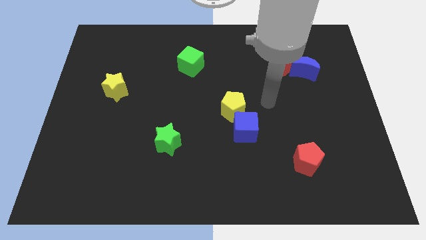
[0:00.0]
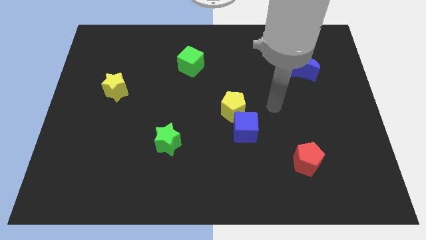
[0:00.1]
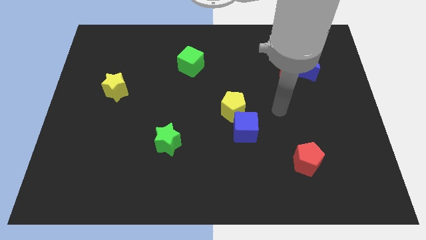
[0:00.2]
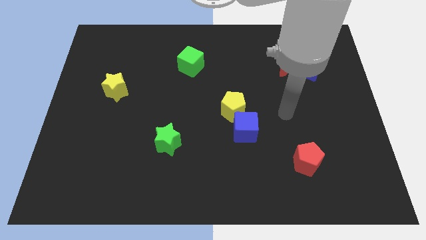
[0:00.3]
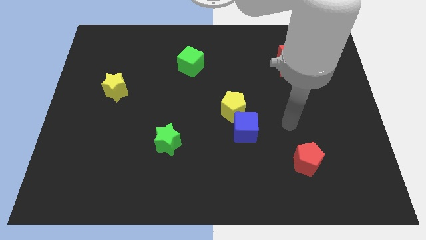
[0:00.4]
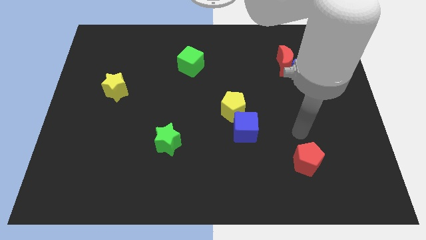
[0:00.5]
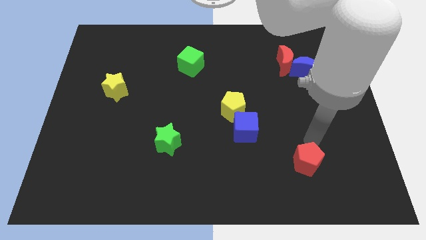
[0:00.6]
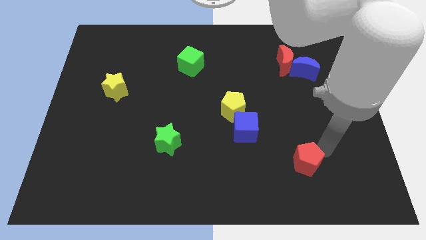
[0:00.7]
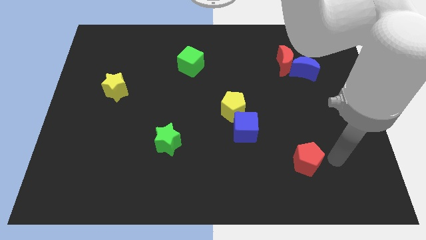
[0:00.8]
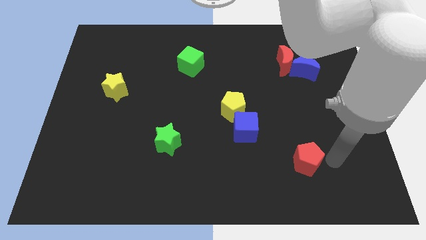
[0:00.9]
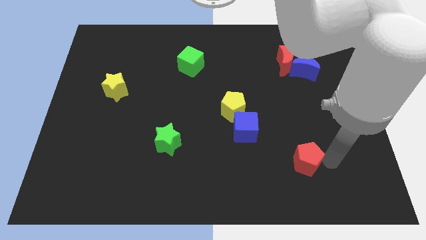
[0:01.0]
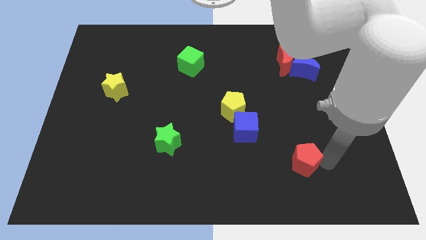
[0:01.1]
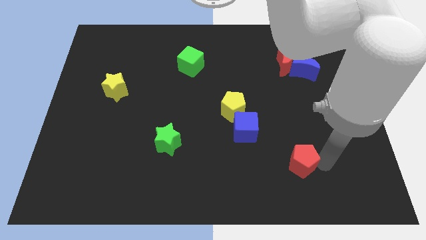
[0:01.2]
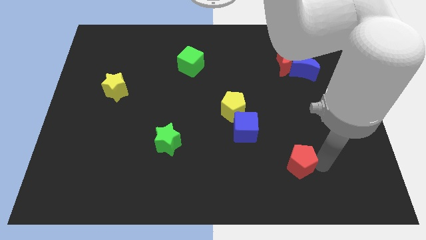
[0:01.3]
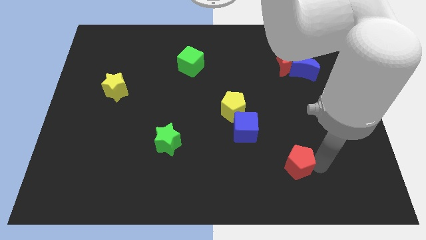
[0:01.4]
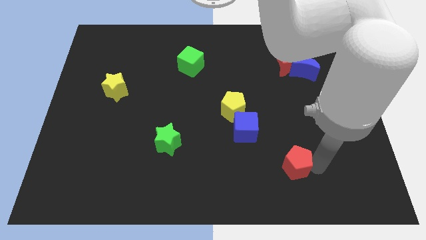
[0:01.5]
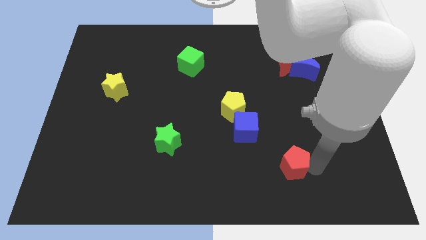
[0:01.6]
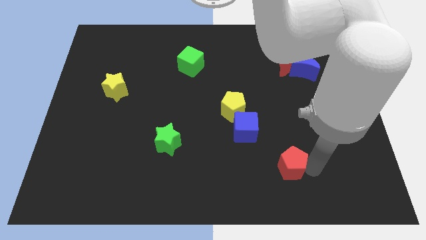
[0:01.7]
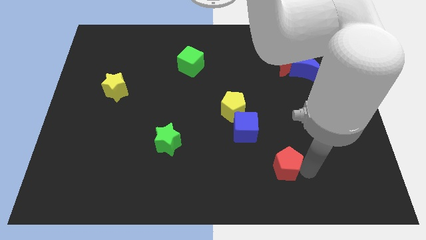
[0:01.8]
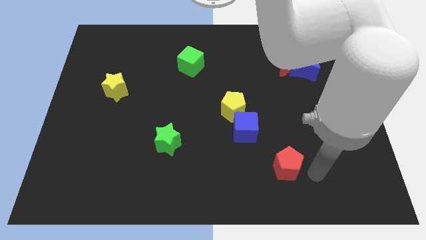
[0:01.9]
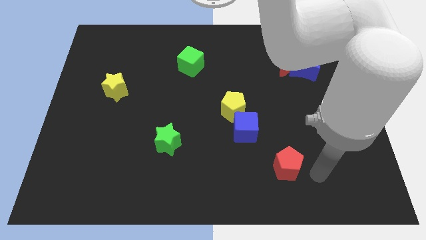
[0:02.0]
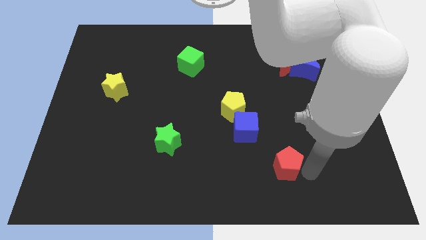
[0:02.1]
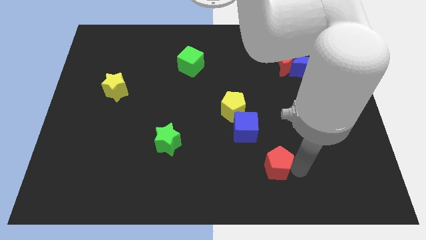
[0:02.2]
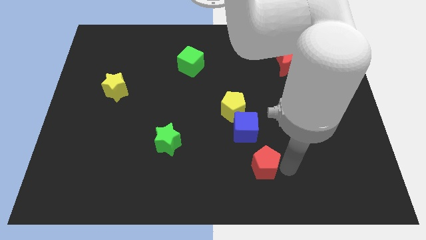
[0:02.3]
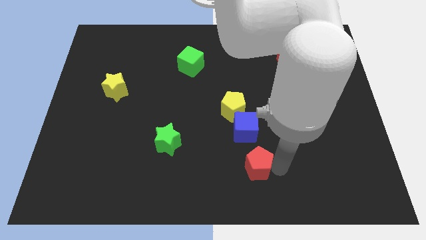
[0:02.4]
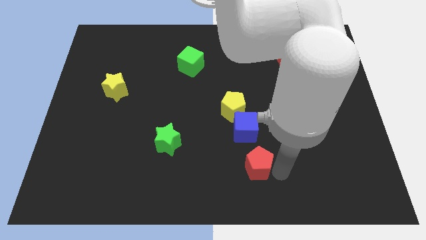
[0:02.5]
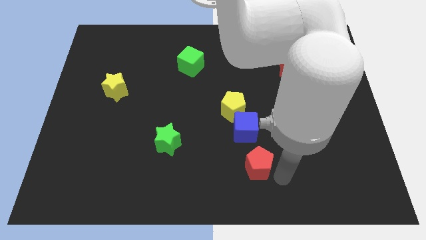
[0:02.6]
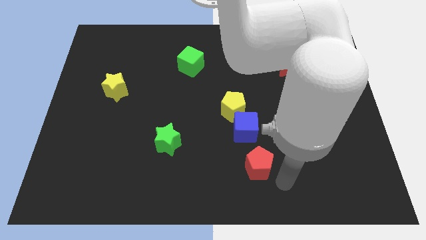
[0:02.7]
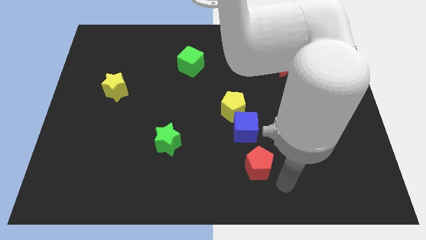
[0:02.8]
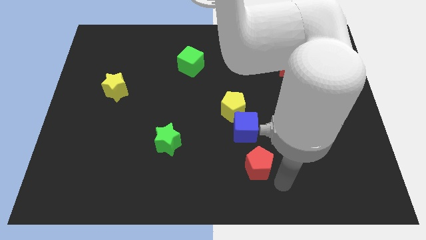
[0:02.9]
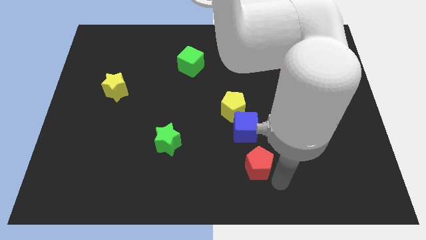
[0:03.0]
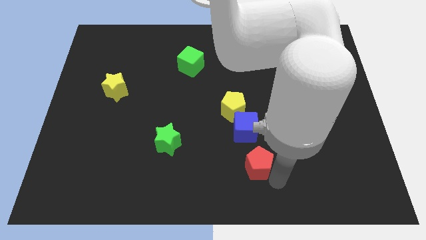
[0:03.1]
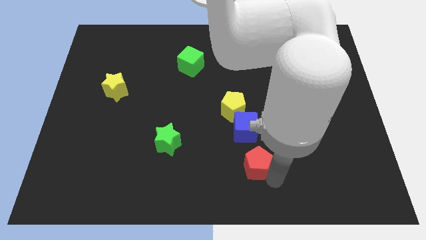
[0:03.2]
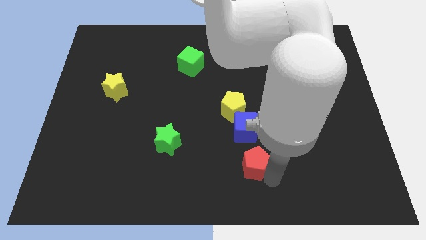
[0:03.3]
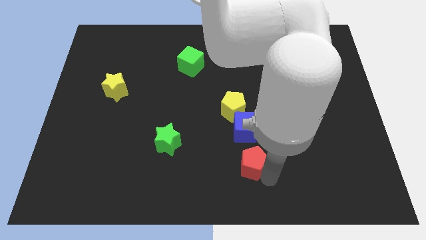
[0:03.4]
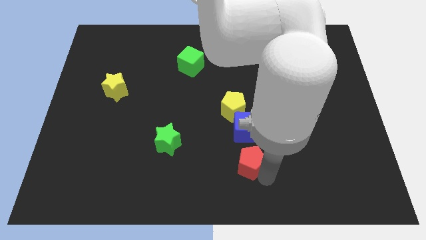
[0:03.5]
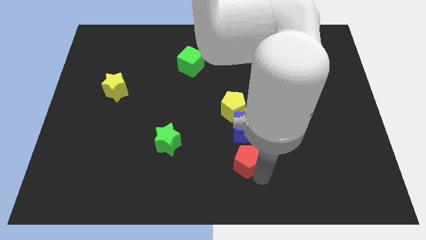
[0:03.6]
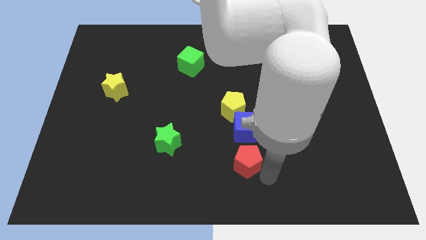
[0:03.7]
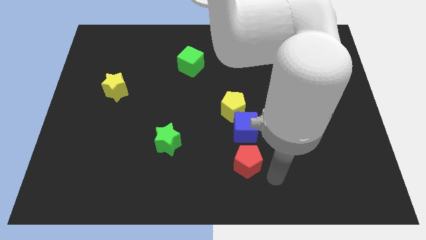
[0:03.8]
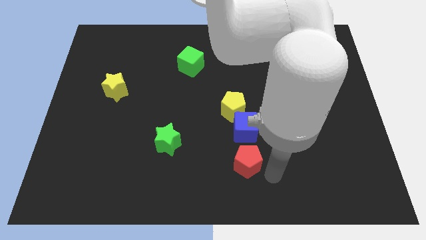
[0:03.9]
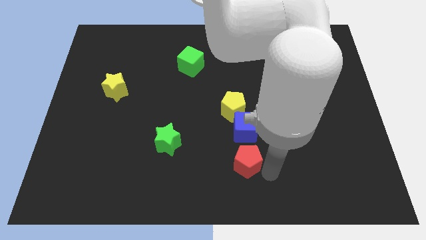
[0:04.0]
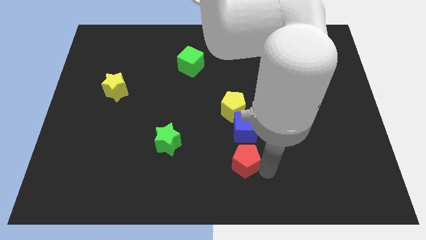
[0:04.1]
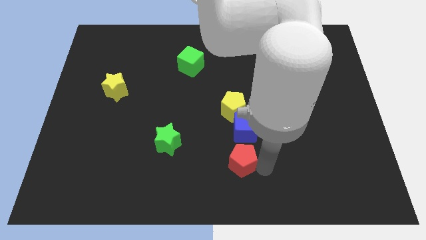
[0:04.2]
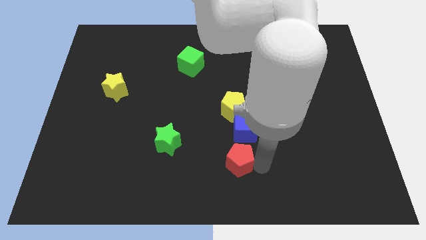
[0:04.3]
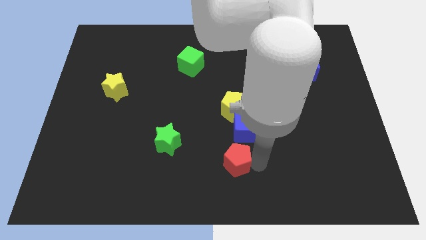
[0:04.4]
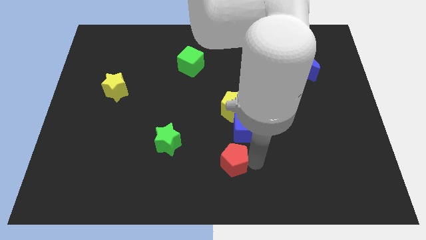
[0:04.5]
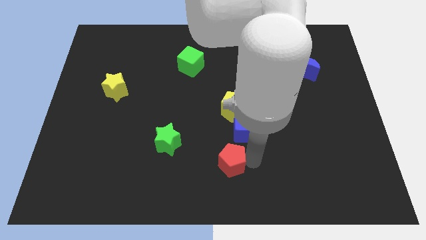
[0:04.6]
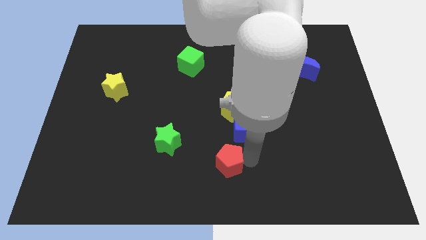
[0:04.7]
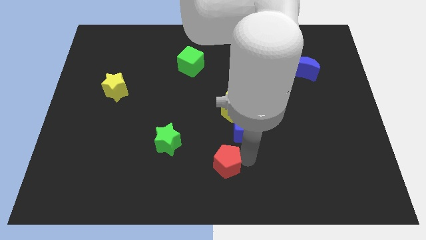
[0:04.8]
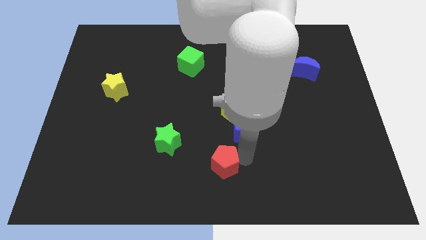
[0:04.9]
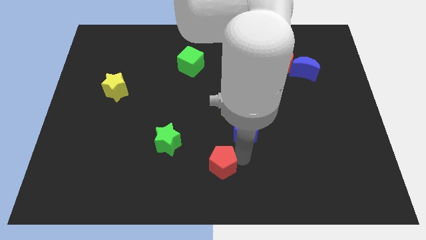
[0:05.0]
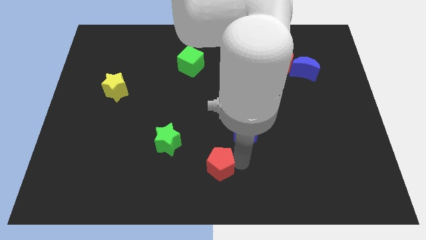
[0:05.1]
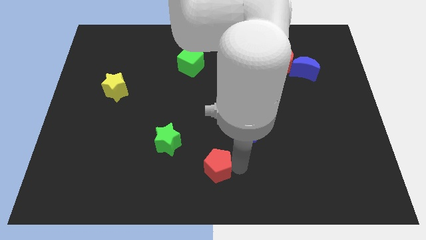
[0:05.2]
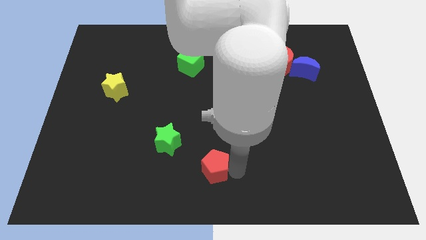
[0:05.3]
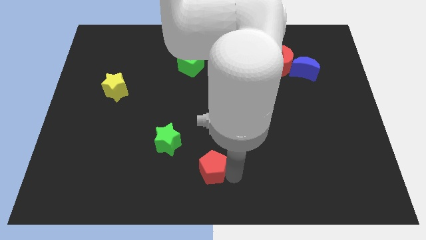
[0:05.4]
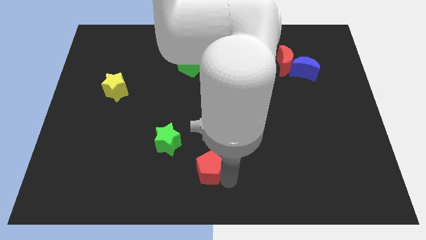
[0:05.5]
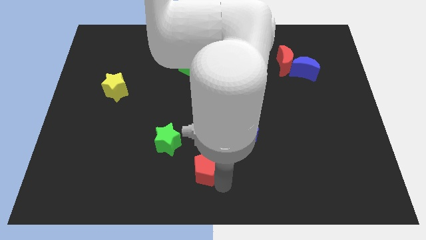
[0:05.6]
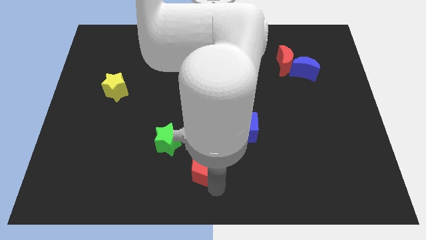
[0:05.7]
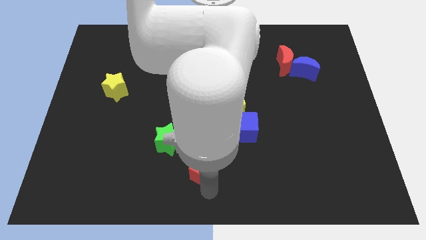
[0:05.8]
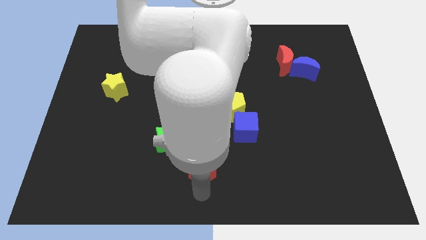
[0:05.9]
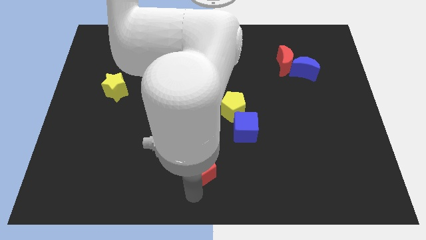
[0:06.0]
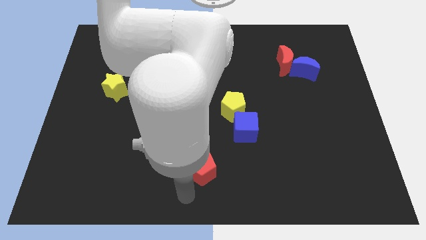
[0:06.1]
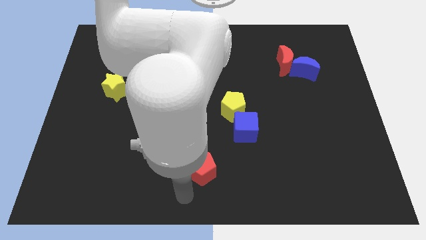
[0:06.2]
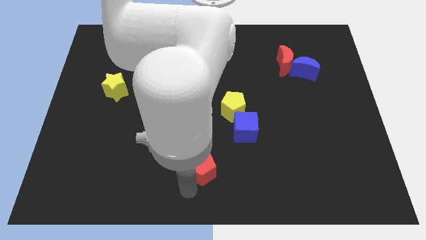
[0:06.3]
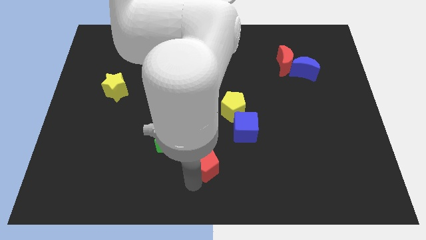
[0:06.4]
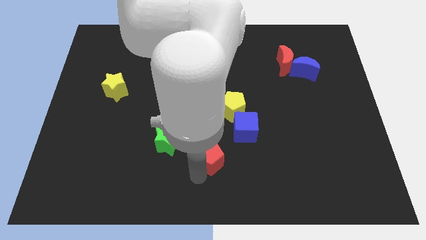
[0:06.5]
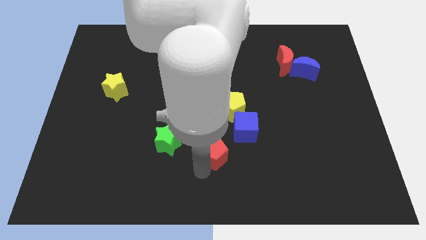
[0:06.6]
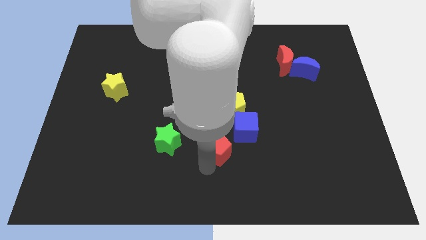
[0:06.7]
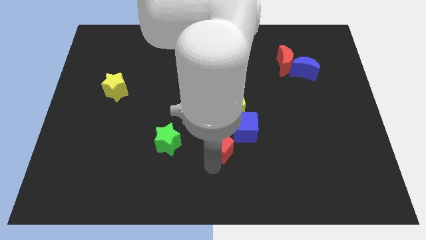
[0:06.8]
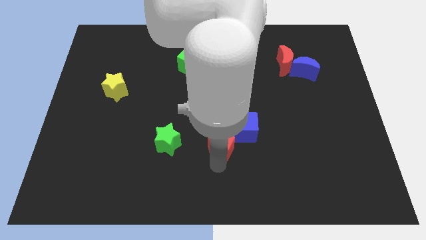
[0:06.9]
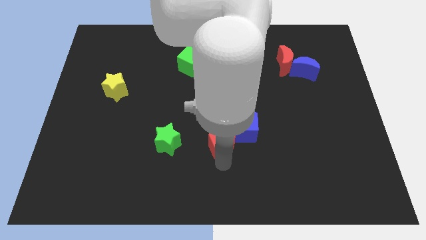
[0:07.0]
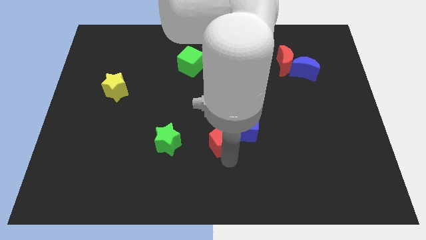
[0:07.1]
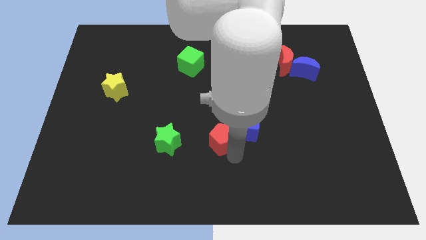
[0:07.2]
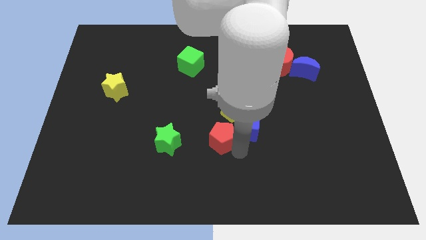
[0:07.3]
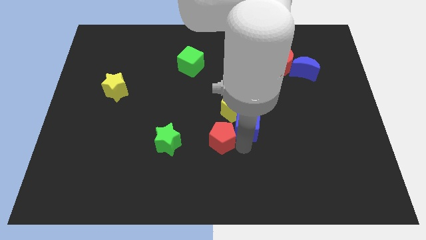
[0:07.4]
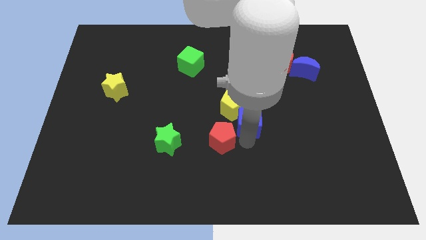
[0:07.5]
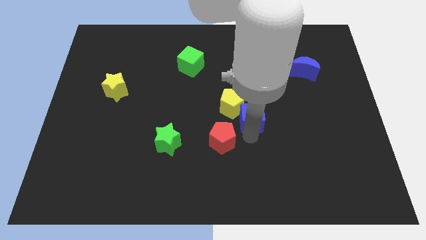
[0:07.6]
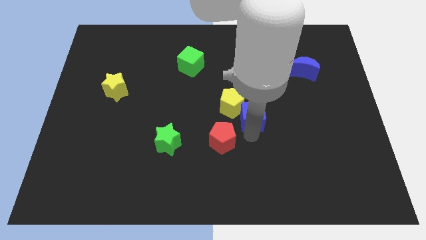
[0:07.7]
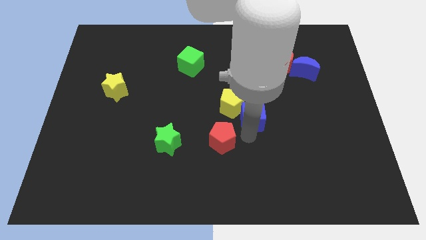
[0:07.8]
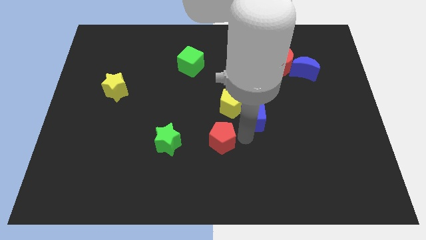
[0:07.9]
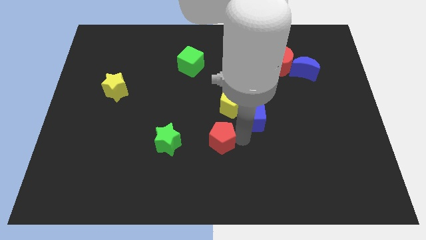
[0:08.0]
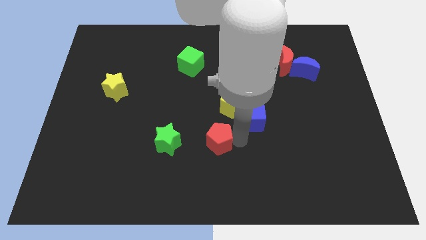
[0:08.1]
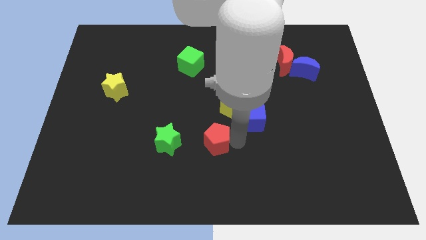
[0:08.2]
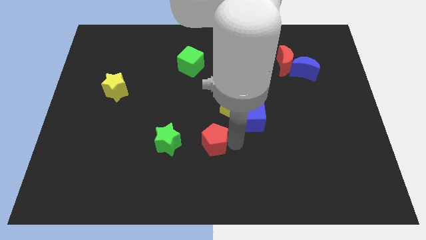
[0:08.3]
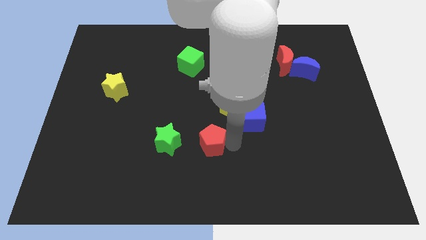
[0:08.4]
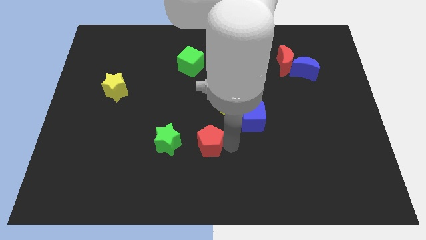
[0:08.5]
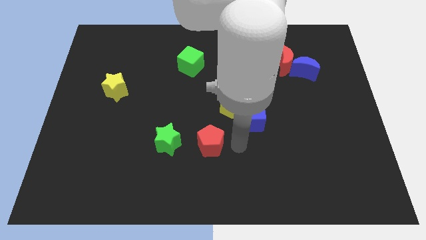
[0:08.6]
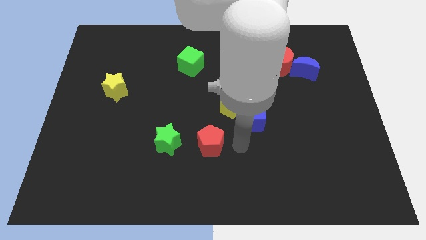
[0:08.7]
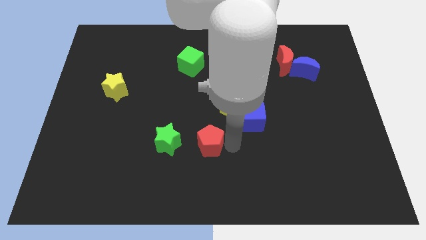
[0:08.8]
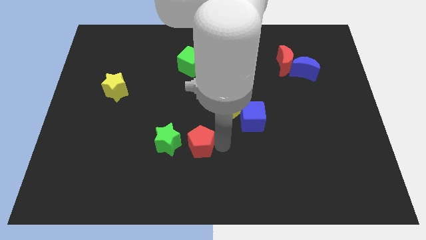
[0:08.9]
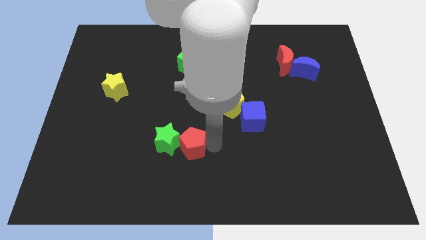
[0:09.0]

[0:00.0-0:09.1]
push the red pentagon towards the green star
